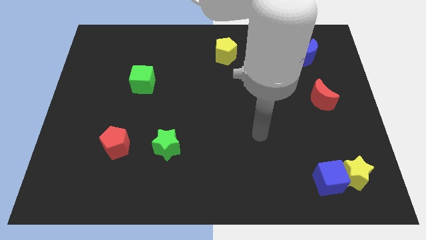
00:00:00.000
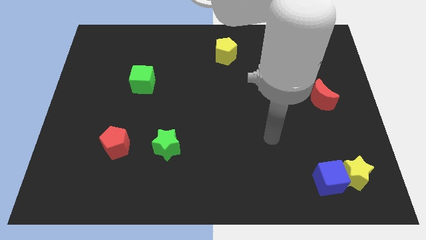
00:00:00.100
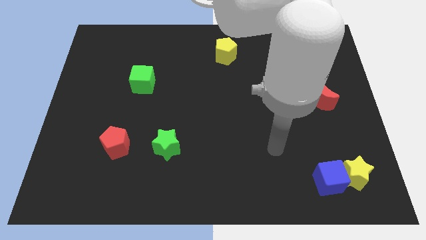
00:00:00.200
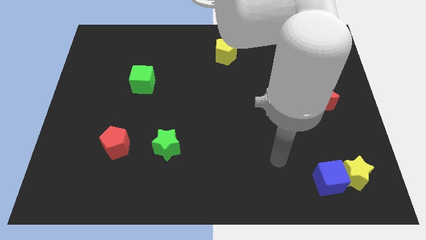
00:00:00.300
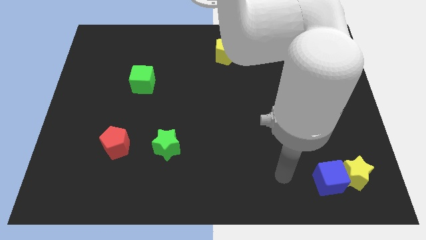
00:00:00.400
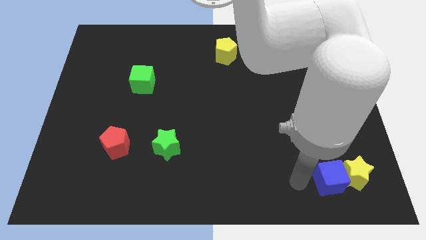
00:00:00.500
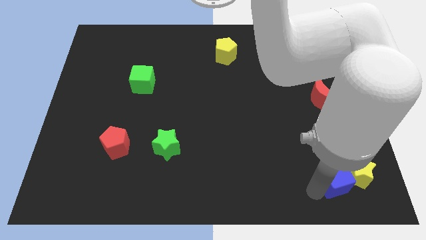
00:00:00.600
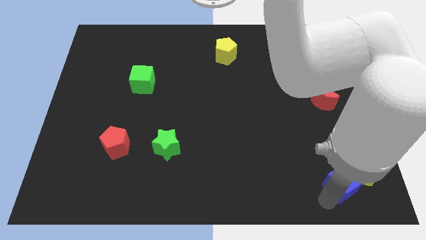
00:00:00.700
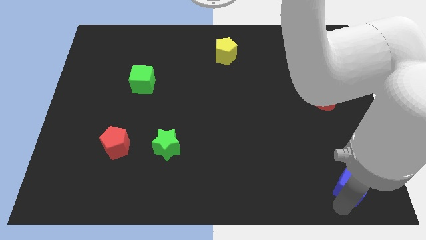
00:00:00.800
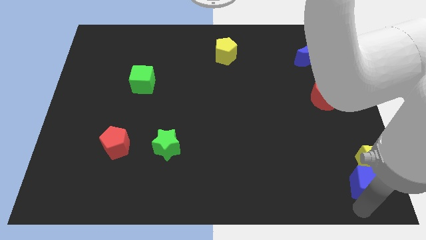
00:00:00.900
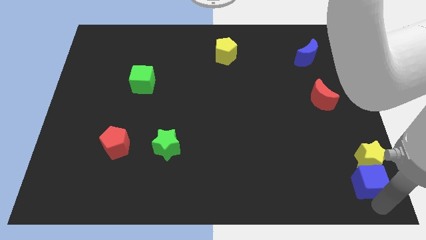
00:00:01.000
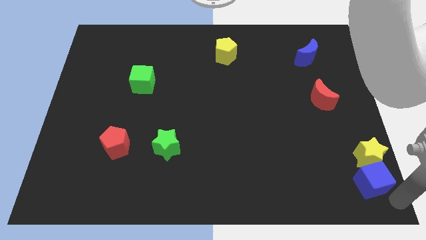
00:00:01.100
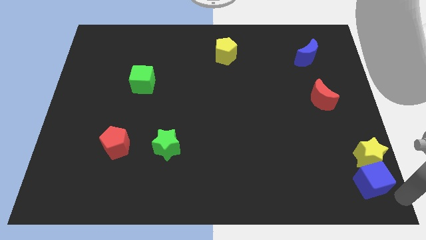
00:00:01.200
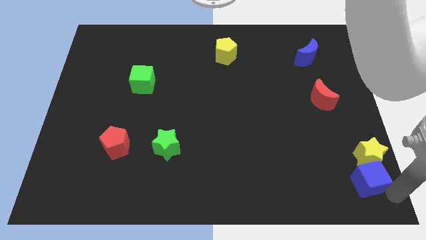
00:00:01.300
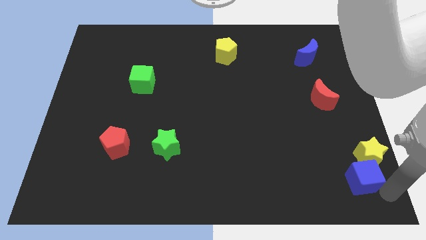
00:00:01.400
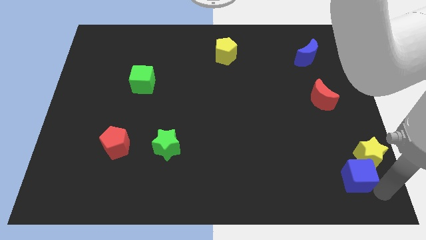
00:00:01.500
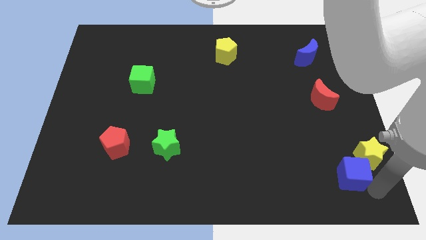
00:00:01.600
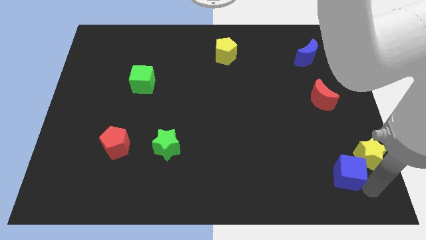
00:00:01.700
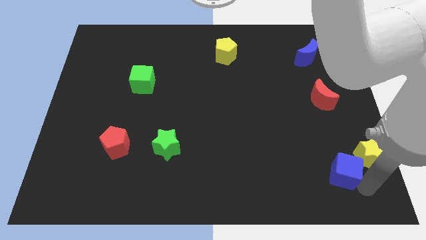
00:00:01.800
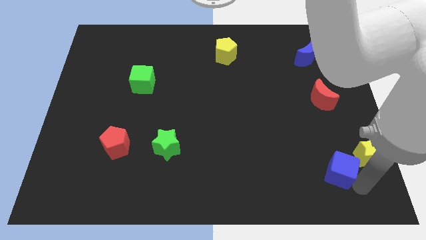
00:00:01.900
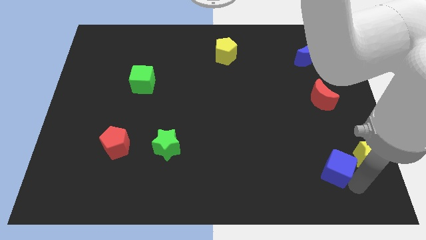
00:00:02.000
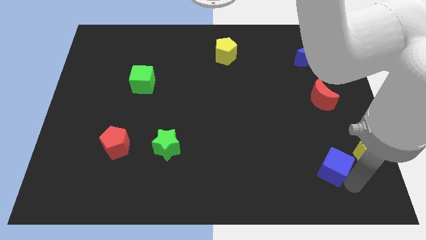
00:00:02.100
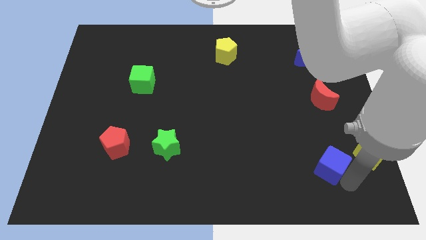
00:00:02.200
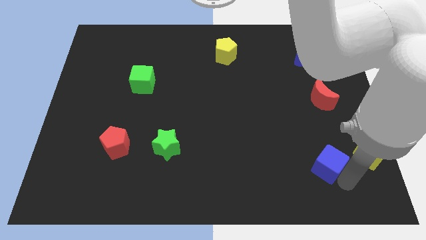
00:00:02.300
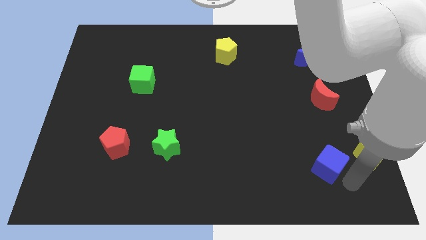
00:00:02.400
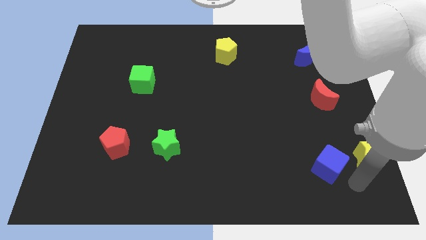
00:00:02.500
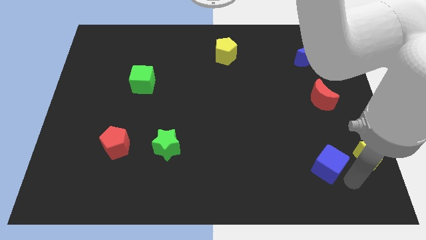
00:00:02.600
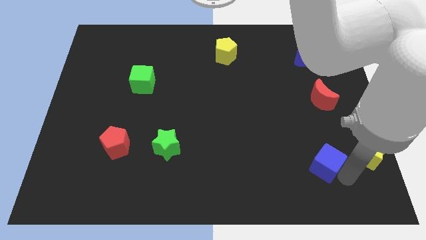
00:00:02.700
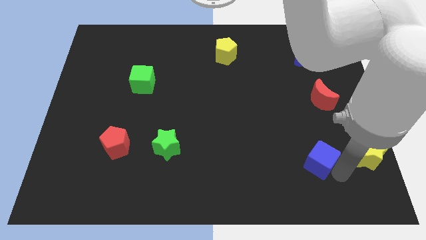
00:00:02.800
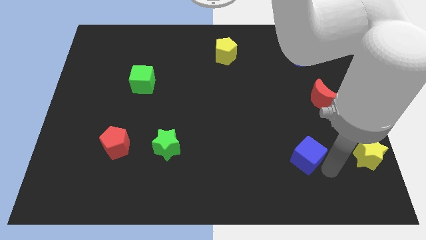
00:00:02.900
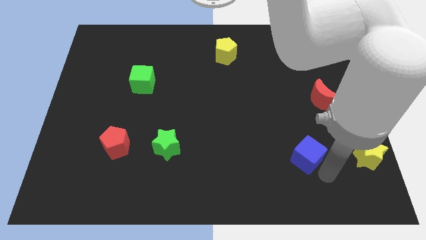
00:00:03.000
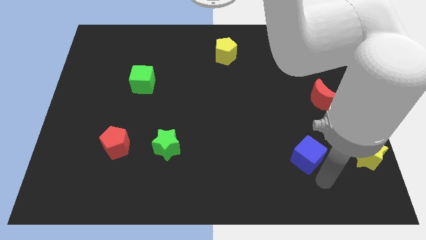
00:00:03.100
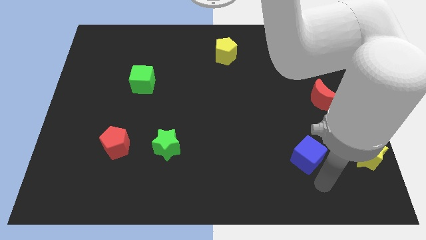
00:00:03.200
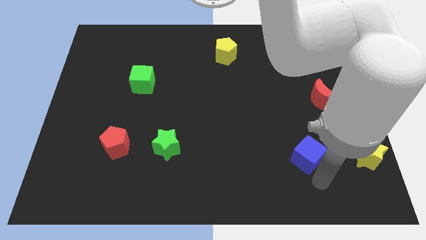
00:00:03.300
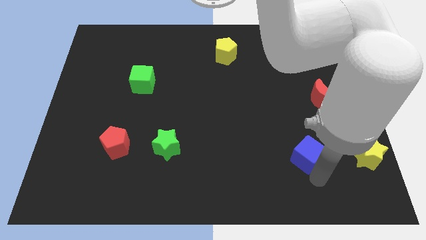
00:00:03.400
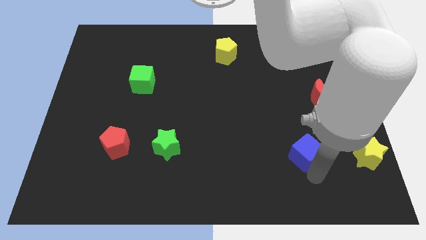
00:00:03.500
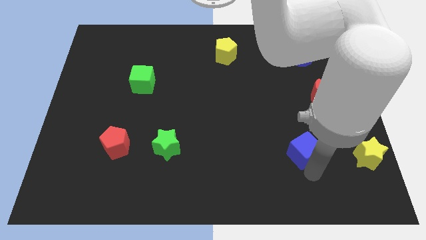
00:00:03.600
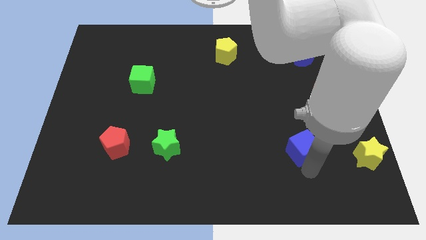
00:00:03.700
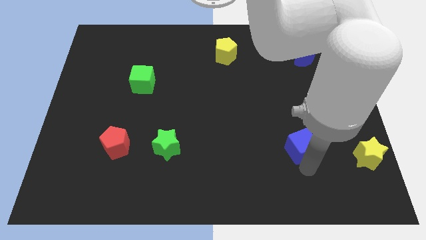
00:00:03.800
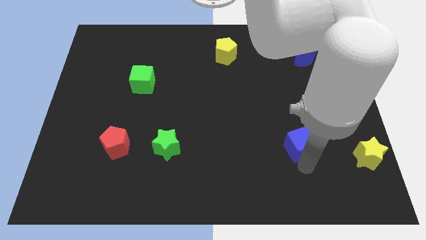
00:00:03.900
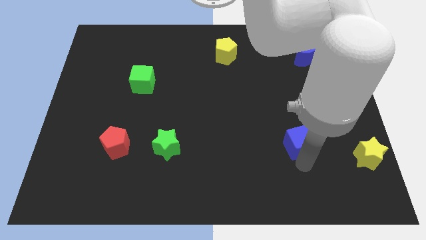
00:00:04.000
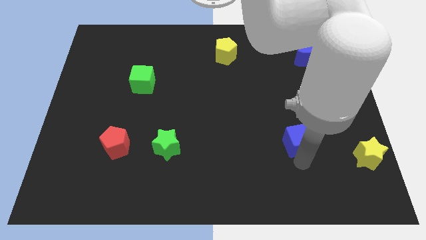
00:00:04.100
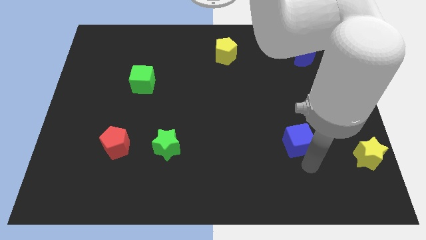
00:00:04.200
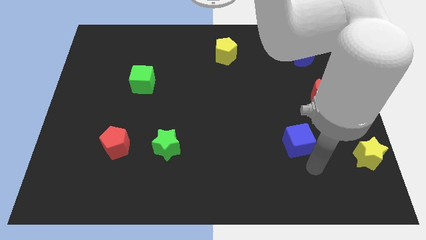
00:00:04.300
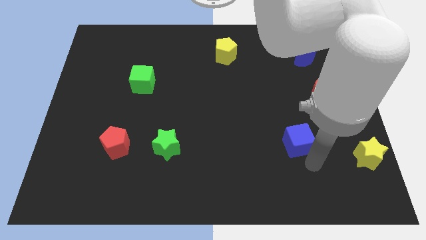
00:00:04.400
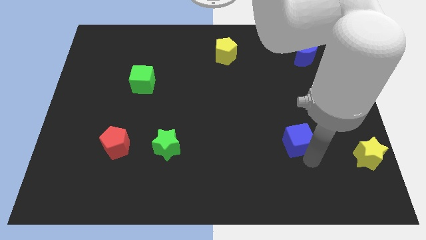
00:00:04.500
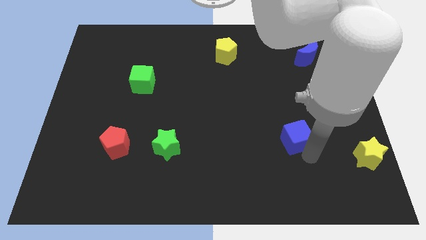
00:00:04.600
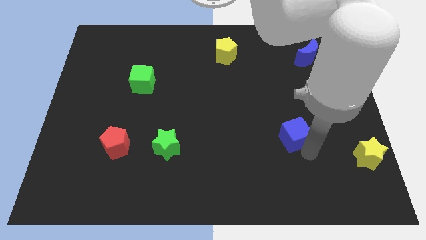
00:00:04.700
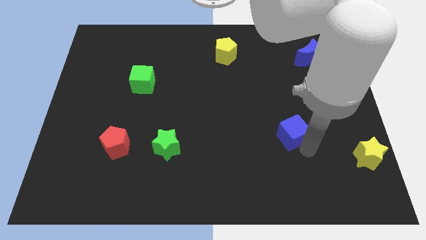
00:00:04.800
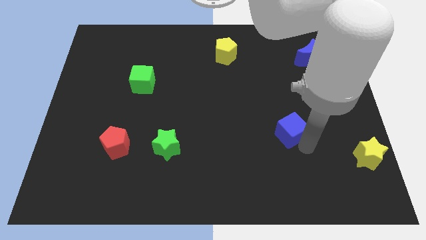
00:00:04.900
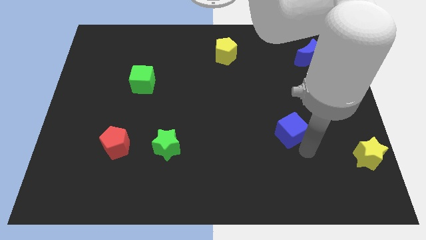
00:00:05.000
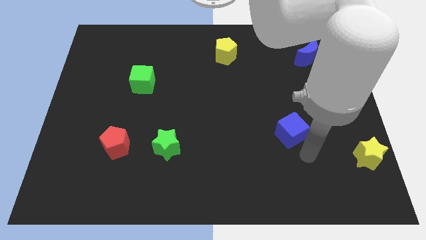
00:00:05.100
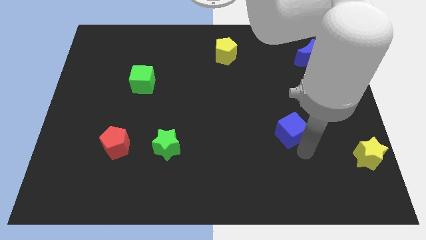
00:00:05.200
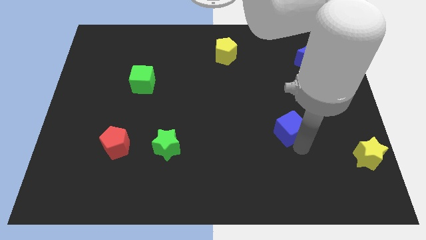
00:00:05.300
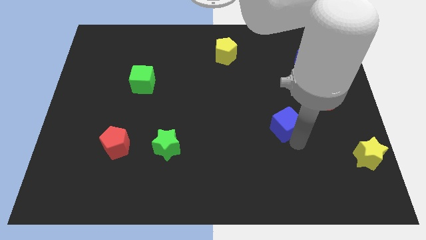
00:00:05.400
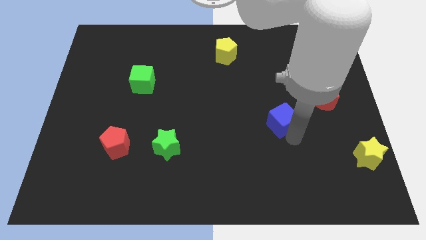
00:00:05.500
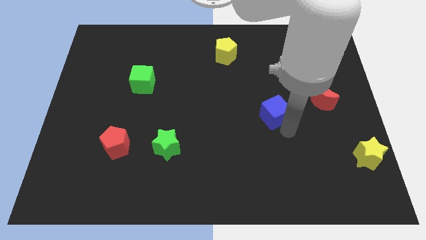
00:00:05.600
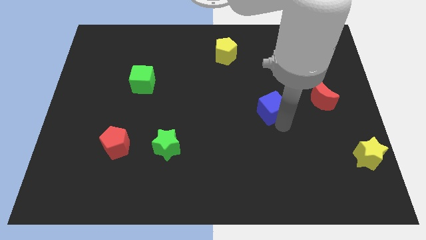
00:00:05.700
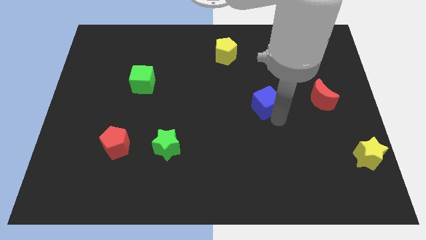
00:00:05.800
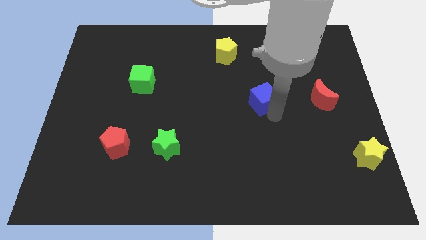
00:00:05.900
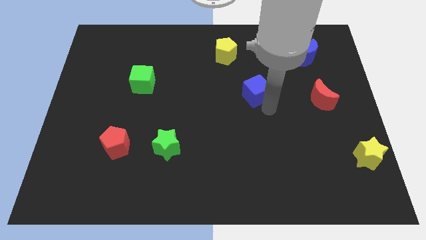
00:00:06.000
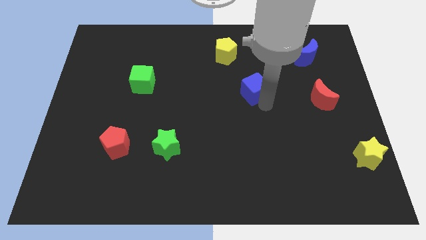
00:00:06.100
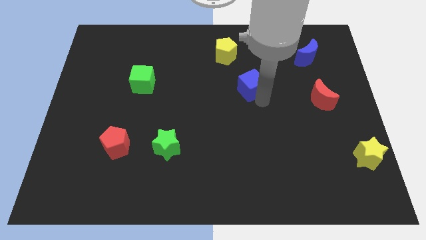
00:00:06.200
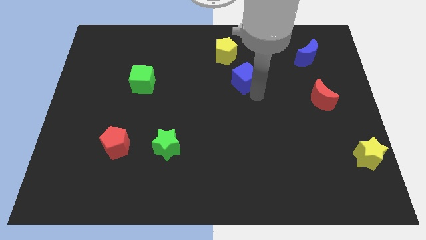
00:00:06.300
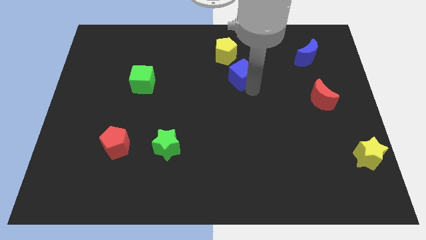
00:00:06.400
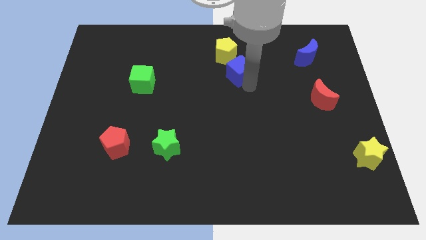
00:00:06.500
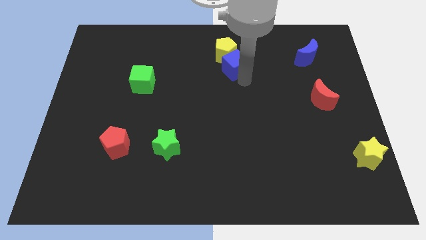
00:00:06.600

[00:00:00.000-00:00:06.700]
move the blue cube next to the yellow pentagon

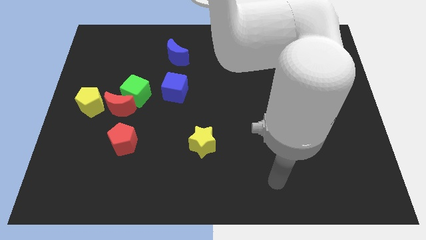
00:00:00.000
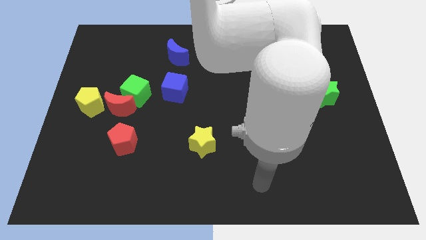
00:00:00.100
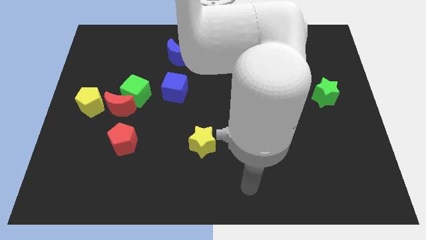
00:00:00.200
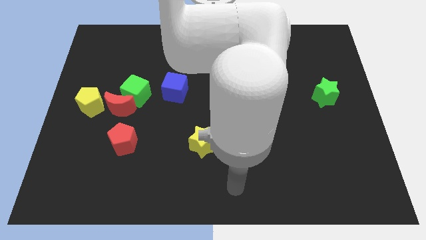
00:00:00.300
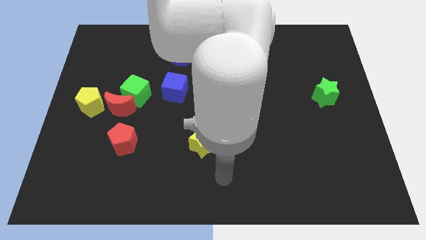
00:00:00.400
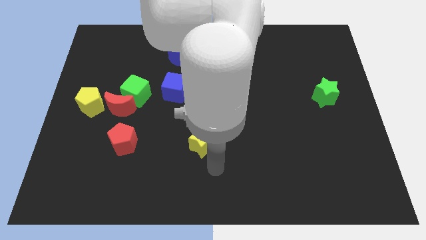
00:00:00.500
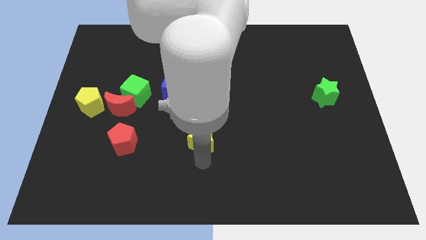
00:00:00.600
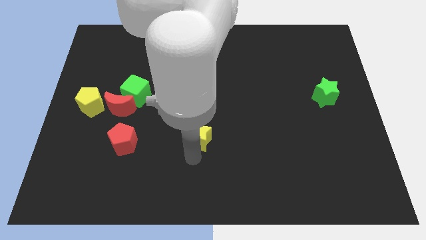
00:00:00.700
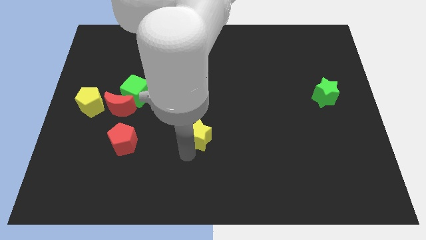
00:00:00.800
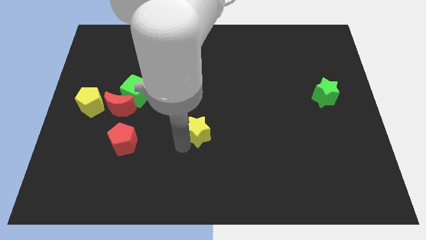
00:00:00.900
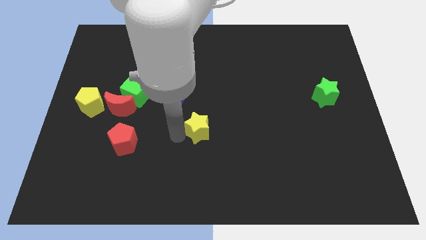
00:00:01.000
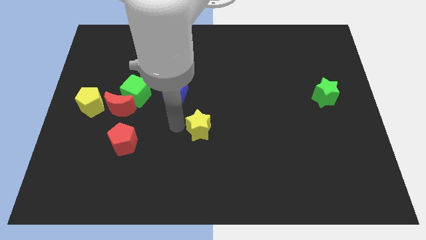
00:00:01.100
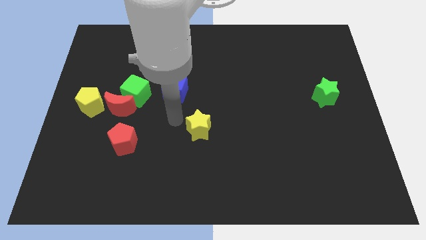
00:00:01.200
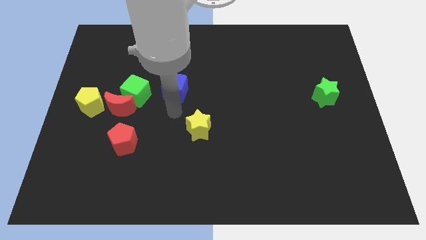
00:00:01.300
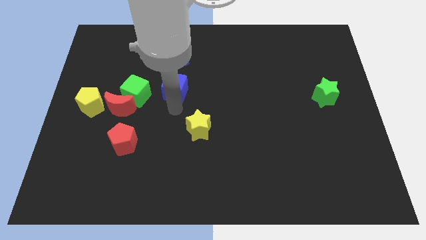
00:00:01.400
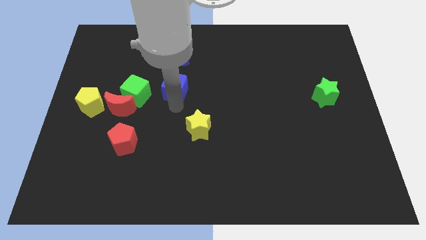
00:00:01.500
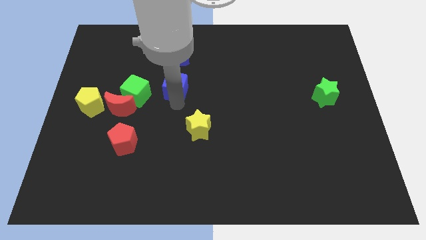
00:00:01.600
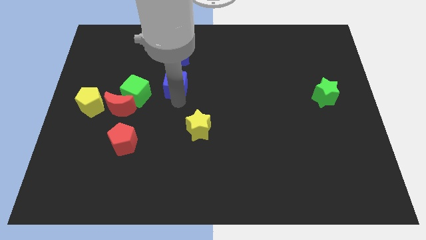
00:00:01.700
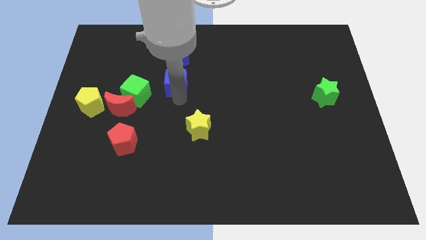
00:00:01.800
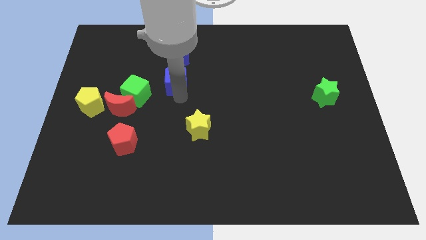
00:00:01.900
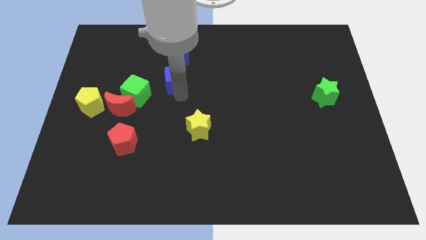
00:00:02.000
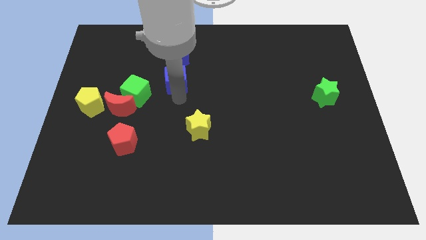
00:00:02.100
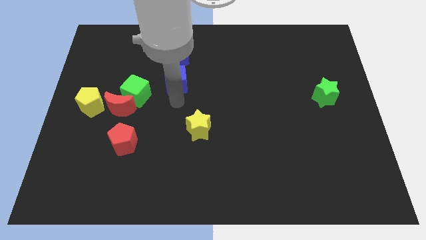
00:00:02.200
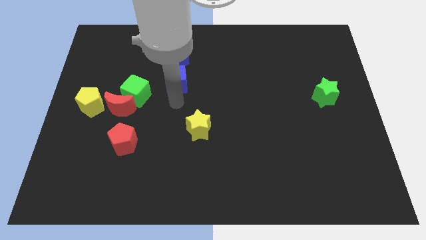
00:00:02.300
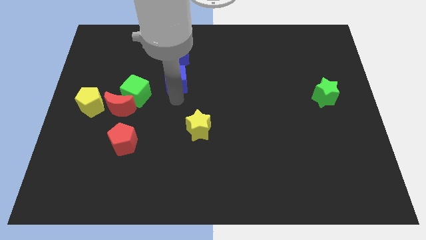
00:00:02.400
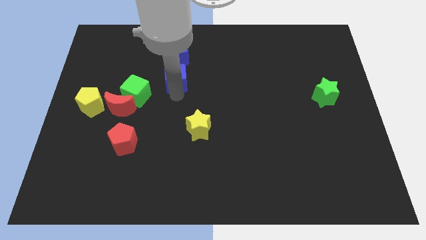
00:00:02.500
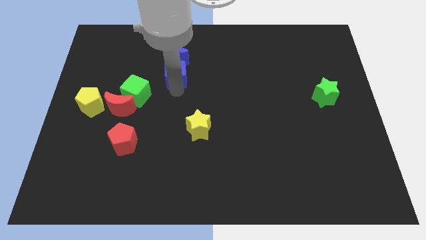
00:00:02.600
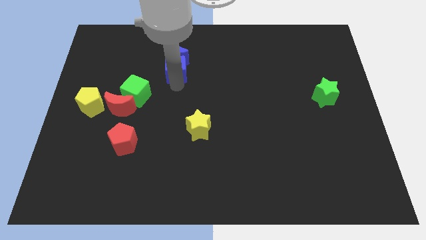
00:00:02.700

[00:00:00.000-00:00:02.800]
put the blue cube close to the blue moon
